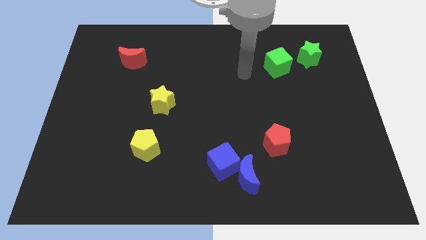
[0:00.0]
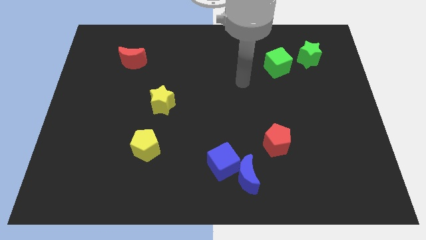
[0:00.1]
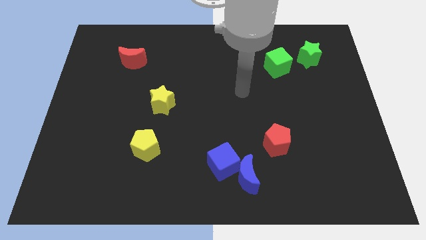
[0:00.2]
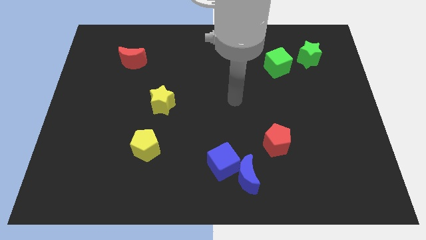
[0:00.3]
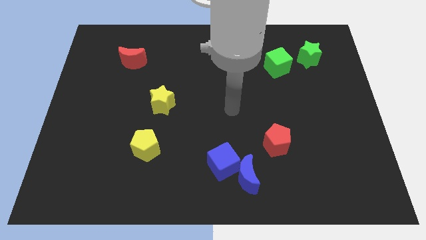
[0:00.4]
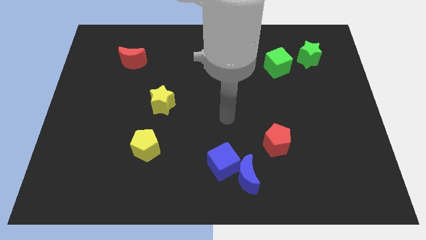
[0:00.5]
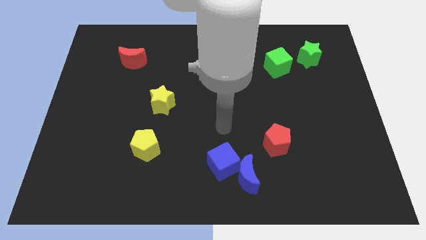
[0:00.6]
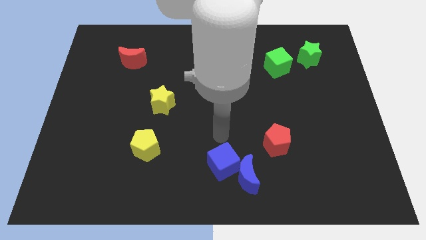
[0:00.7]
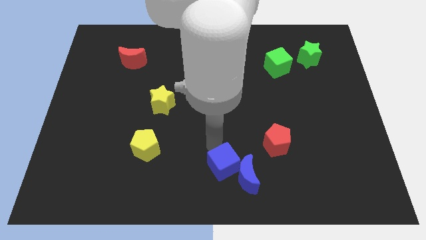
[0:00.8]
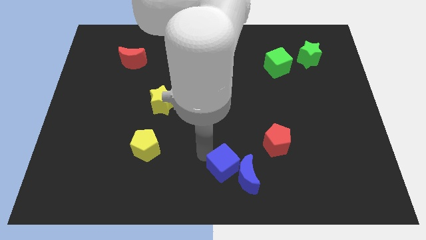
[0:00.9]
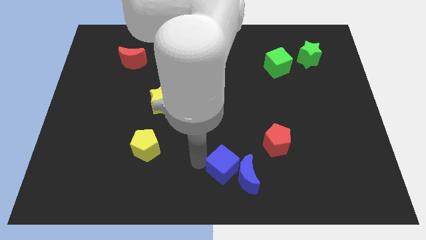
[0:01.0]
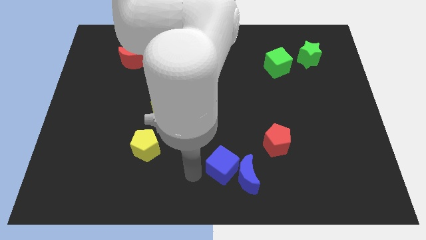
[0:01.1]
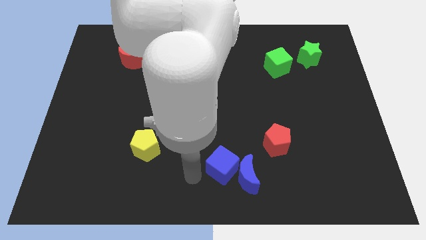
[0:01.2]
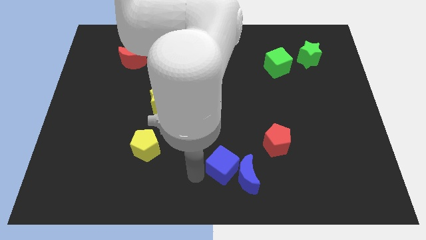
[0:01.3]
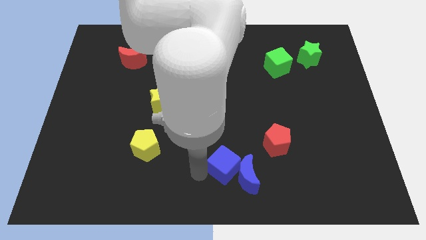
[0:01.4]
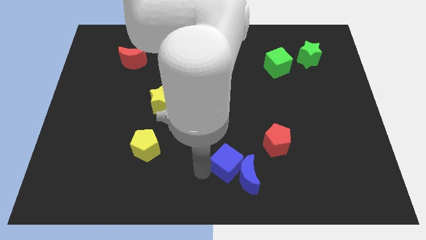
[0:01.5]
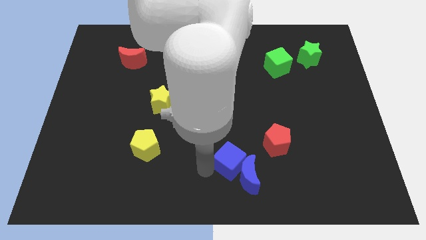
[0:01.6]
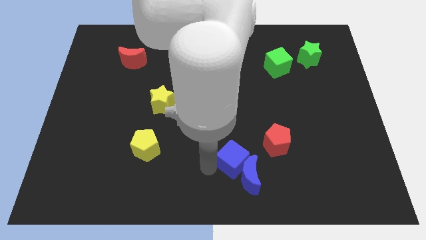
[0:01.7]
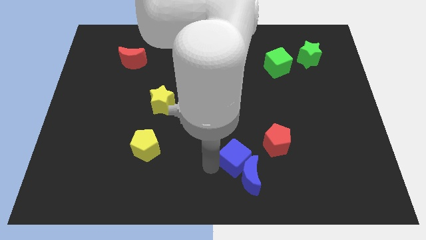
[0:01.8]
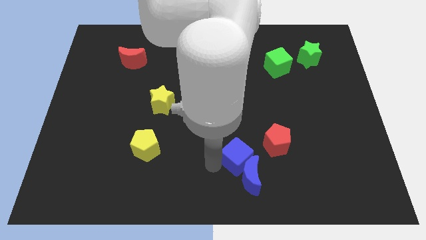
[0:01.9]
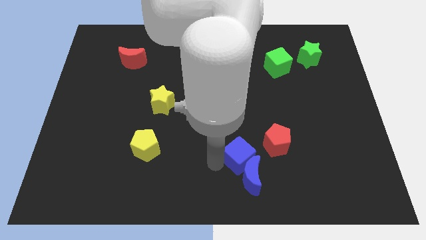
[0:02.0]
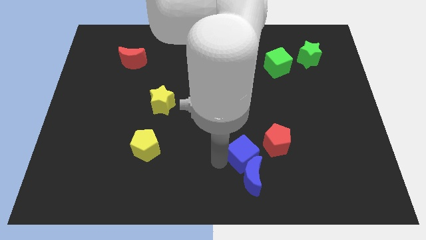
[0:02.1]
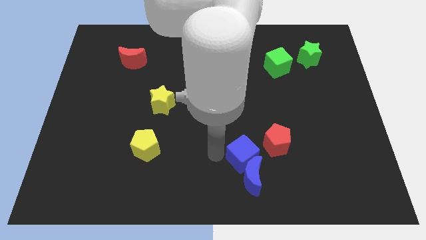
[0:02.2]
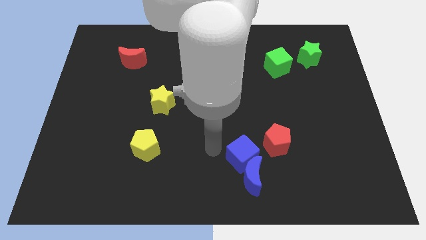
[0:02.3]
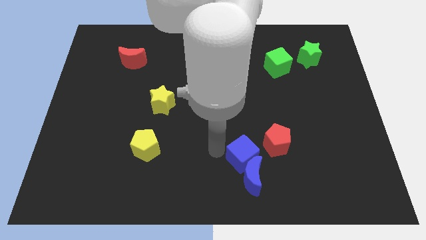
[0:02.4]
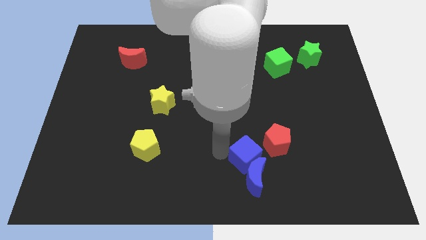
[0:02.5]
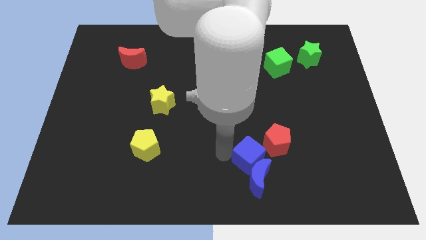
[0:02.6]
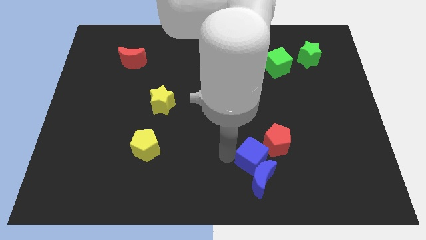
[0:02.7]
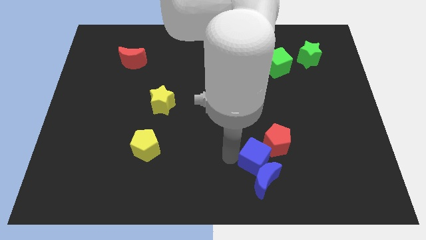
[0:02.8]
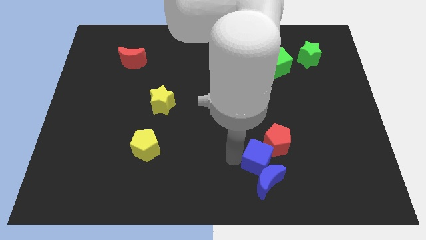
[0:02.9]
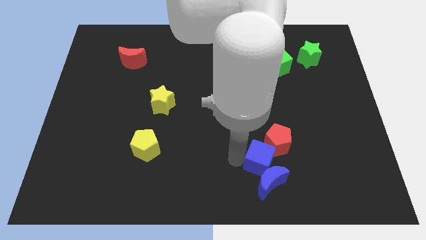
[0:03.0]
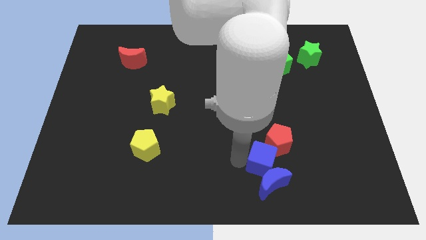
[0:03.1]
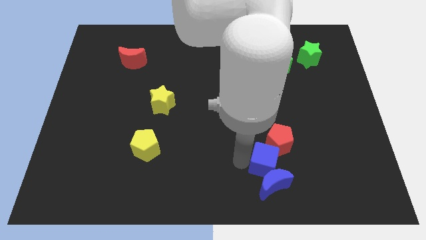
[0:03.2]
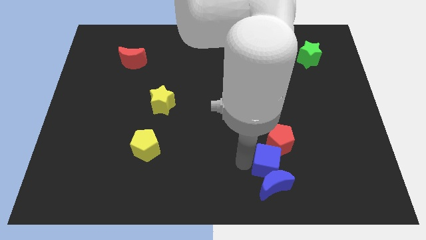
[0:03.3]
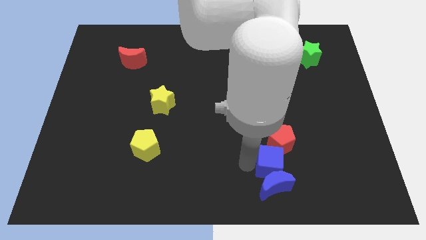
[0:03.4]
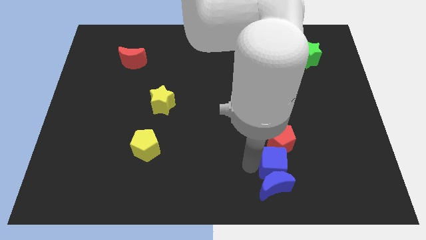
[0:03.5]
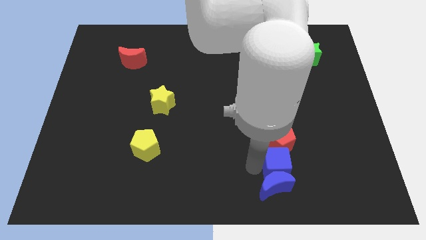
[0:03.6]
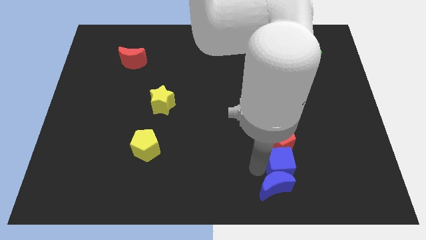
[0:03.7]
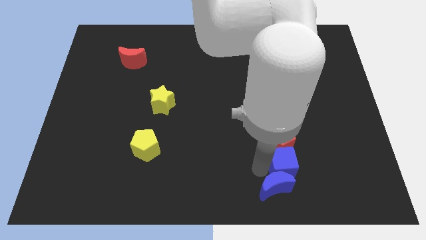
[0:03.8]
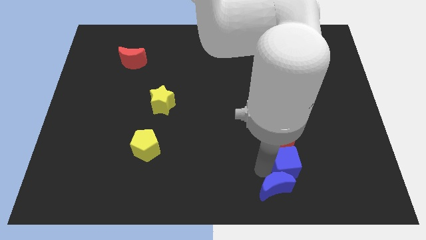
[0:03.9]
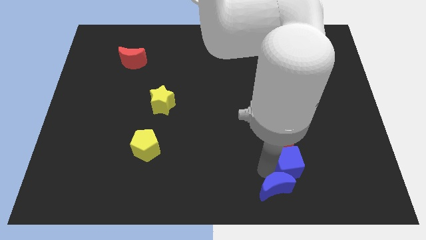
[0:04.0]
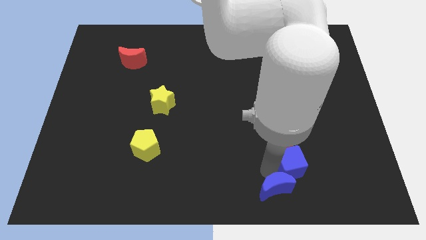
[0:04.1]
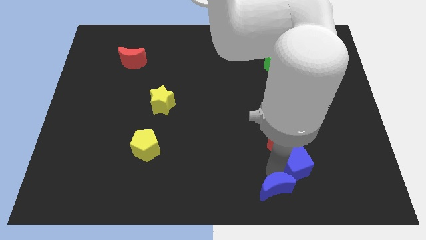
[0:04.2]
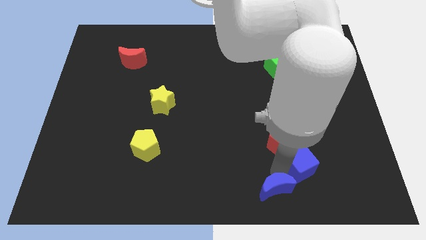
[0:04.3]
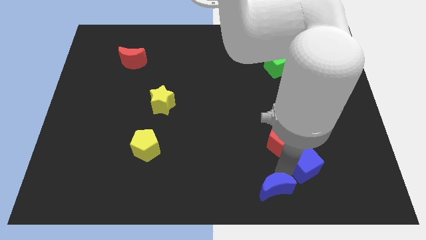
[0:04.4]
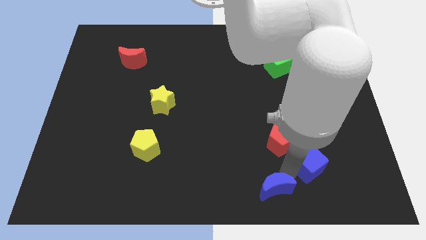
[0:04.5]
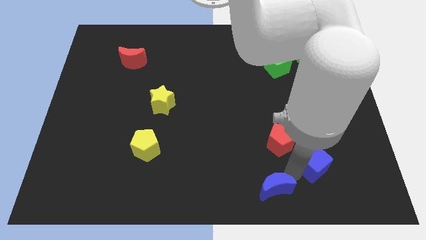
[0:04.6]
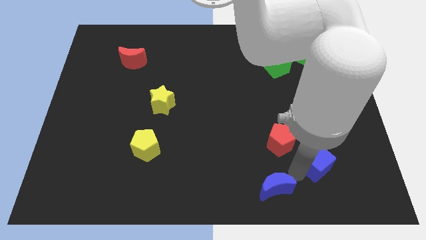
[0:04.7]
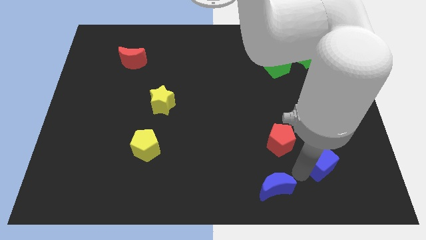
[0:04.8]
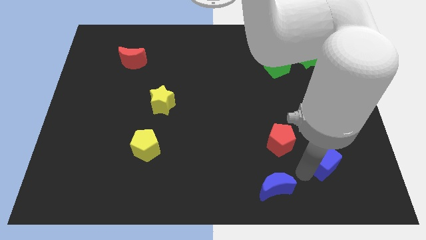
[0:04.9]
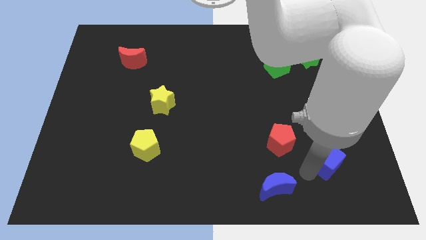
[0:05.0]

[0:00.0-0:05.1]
move the blue cube just right of the red pentagon

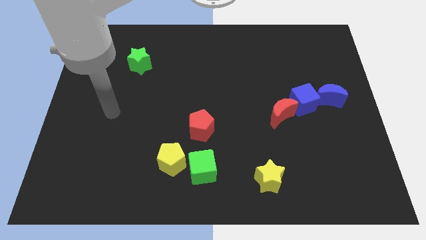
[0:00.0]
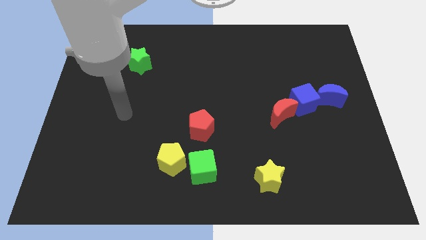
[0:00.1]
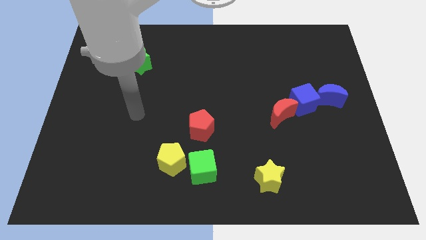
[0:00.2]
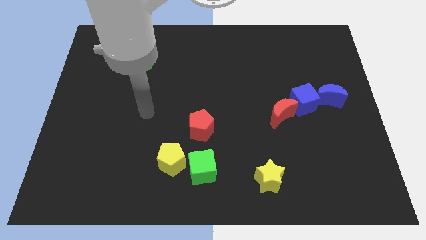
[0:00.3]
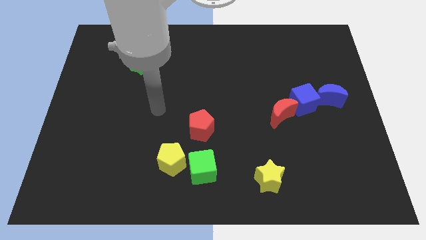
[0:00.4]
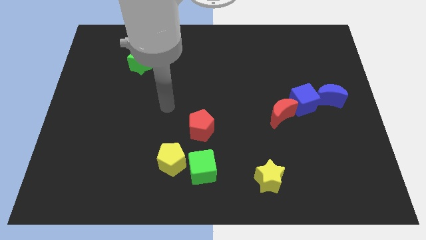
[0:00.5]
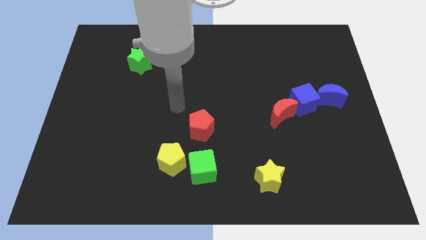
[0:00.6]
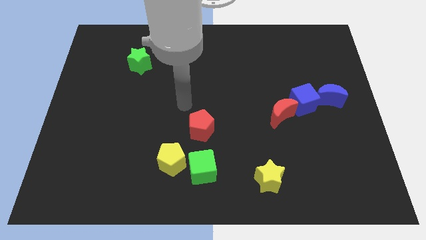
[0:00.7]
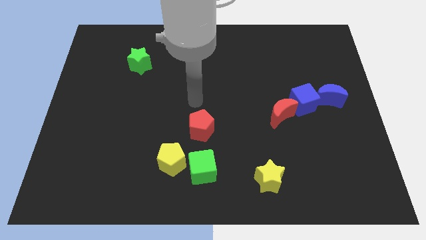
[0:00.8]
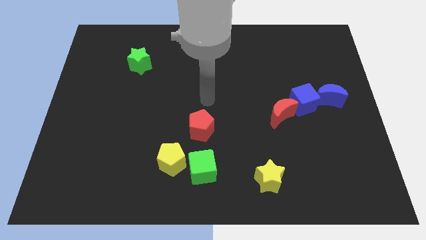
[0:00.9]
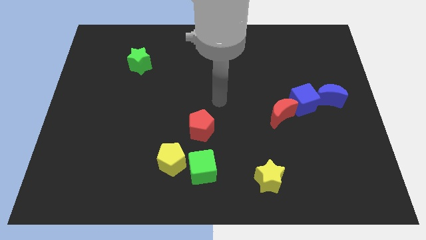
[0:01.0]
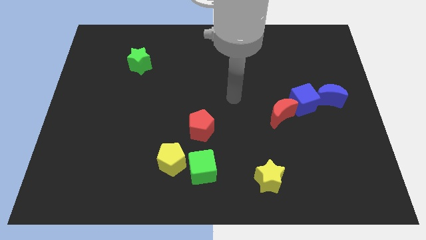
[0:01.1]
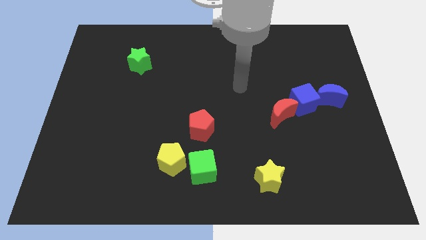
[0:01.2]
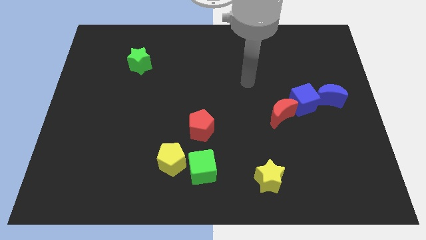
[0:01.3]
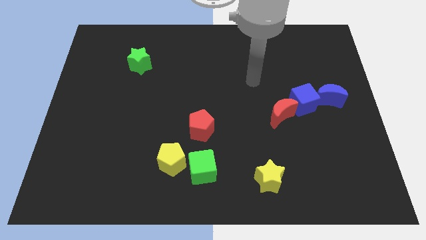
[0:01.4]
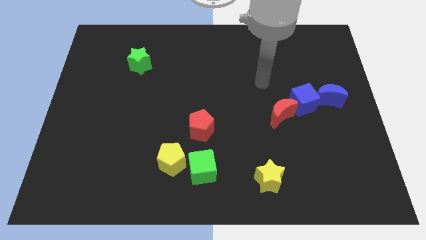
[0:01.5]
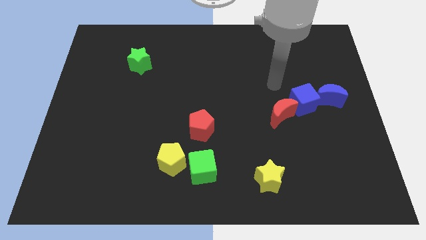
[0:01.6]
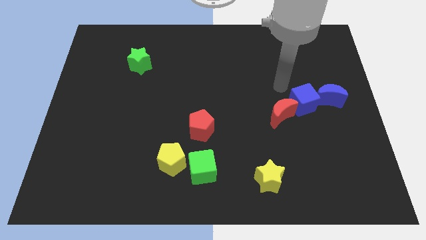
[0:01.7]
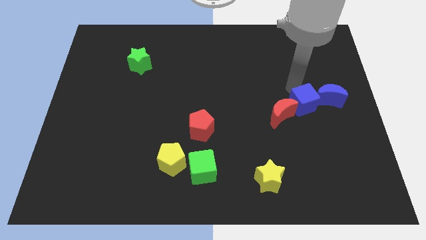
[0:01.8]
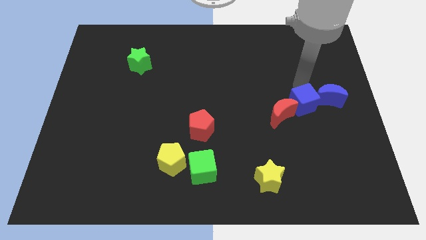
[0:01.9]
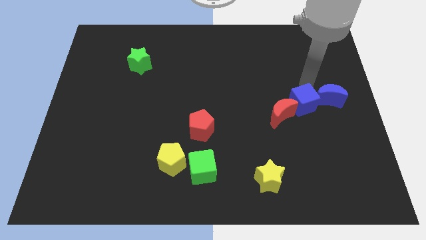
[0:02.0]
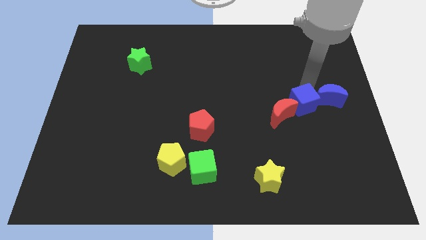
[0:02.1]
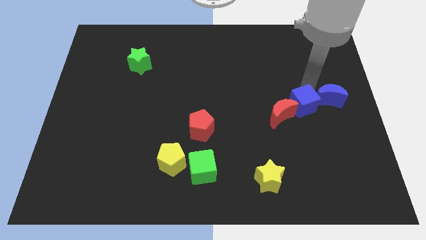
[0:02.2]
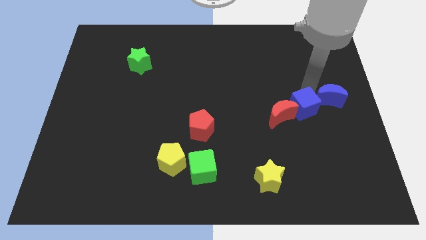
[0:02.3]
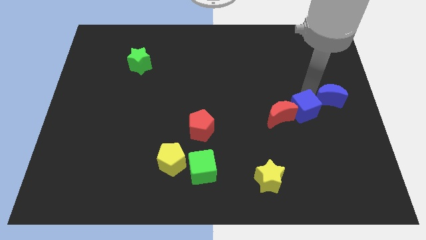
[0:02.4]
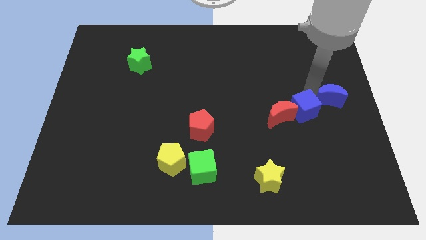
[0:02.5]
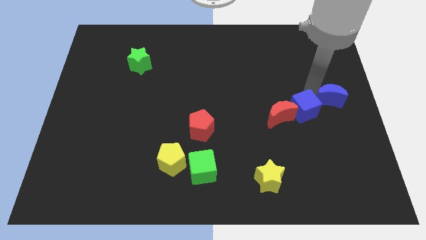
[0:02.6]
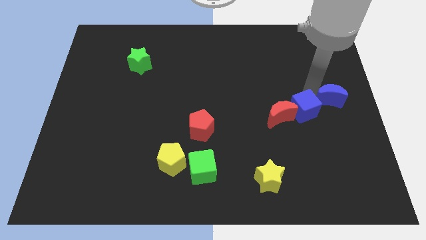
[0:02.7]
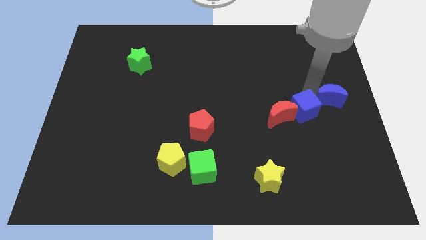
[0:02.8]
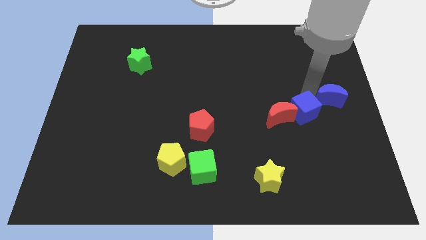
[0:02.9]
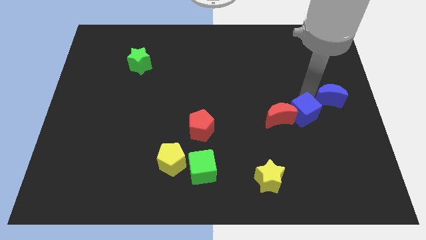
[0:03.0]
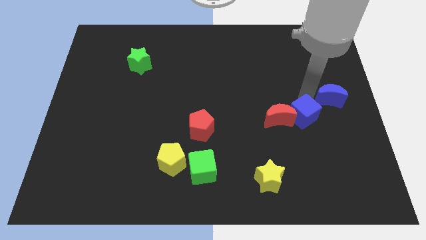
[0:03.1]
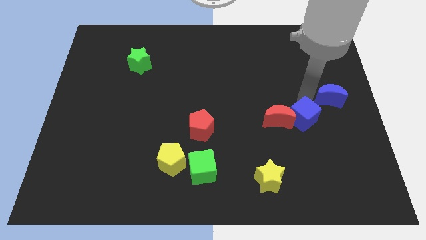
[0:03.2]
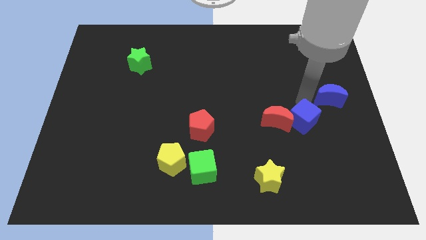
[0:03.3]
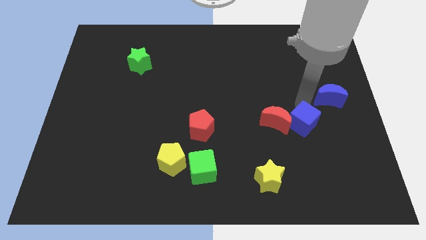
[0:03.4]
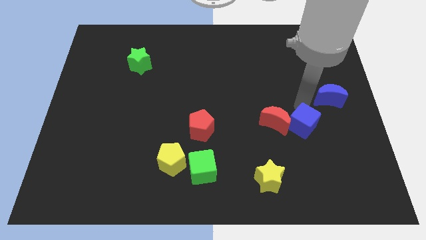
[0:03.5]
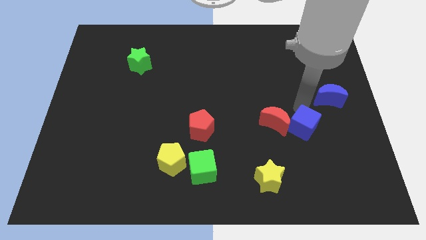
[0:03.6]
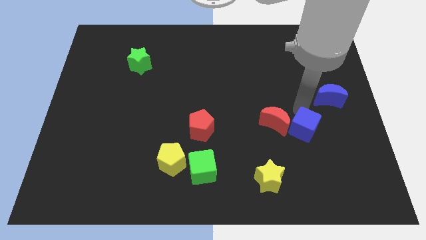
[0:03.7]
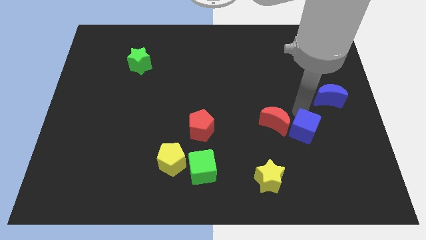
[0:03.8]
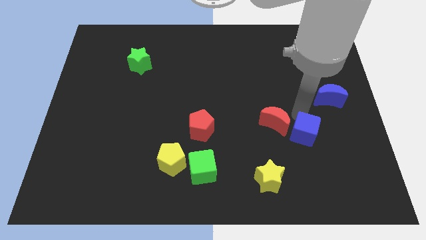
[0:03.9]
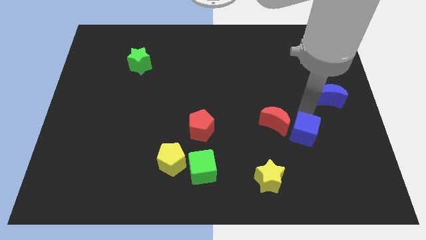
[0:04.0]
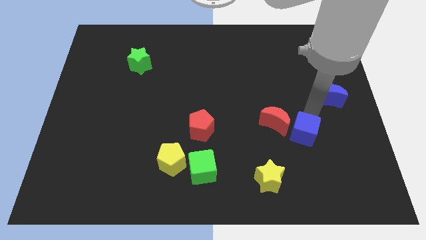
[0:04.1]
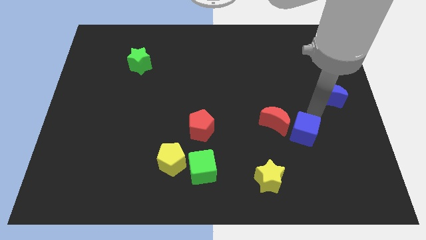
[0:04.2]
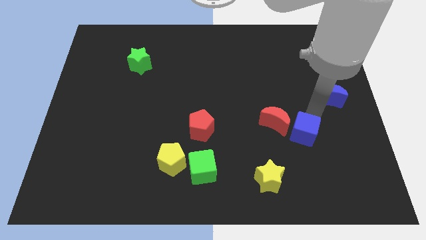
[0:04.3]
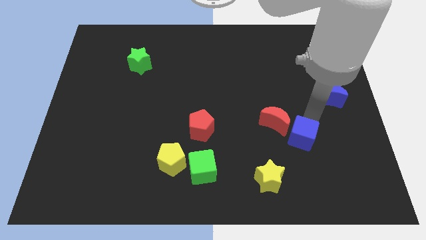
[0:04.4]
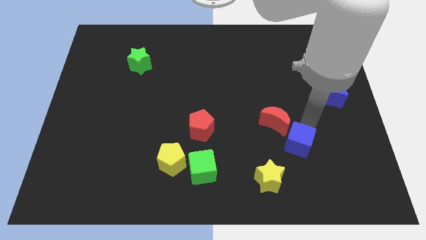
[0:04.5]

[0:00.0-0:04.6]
push the blue cube diagonally up and to the right of the yellow star
